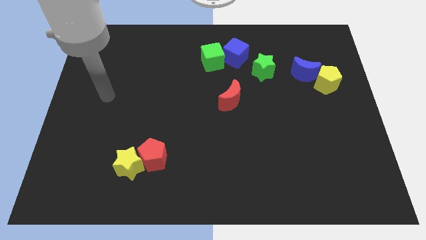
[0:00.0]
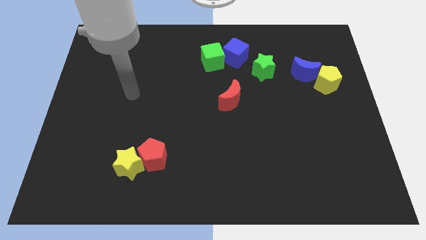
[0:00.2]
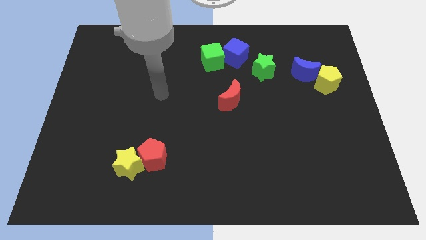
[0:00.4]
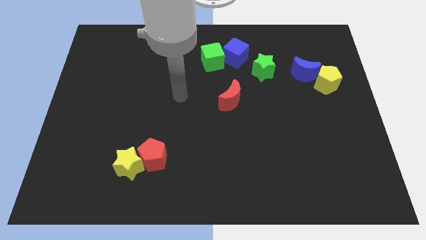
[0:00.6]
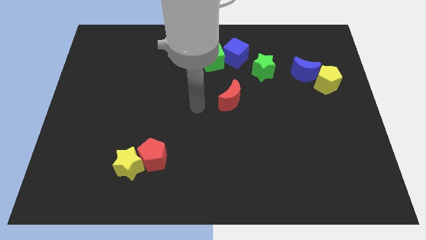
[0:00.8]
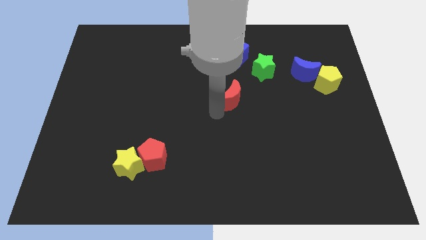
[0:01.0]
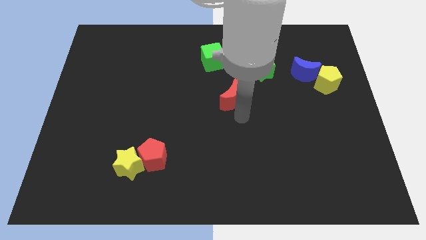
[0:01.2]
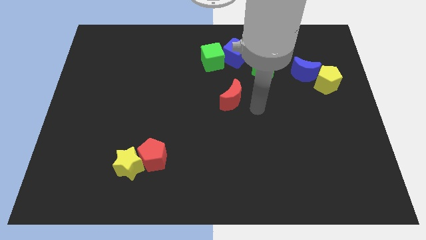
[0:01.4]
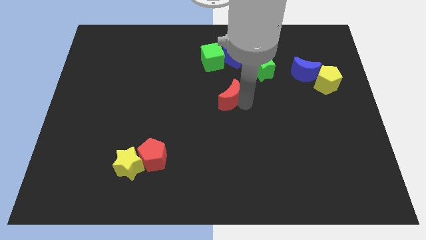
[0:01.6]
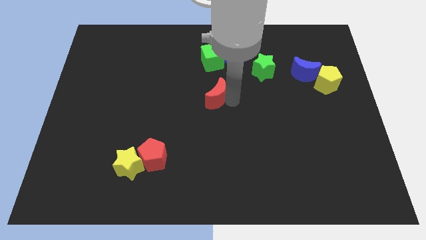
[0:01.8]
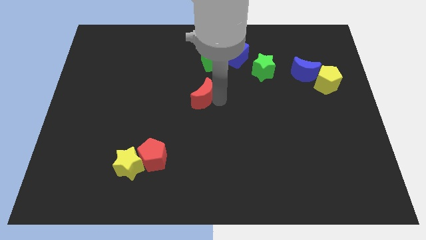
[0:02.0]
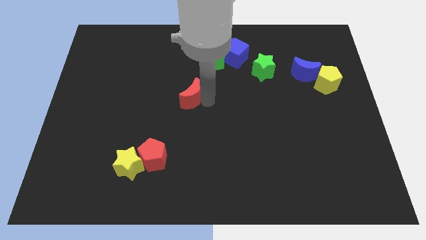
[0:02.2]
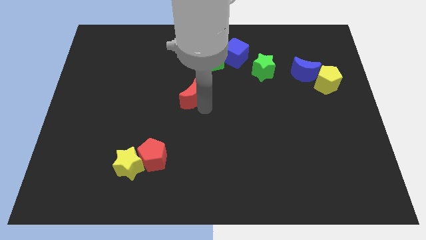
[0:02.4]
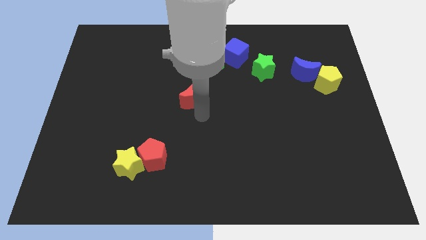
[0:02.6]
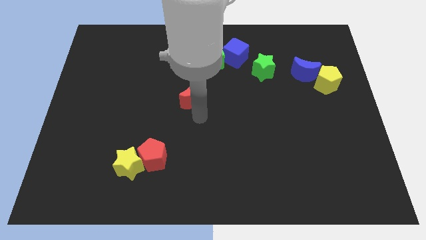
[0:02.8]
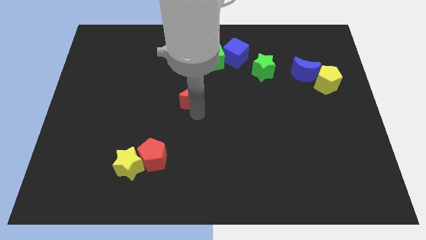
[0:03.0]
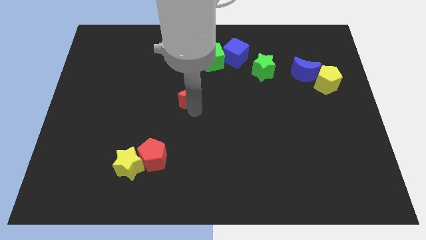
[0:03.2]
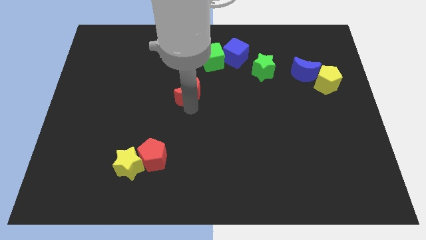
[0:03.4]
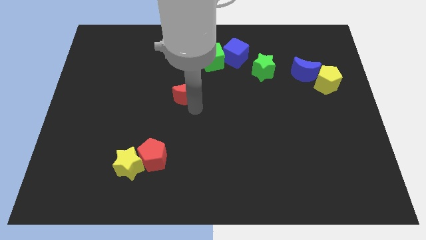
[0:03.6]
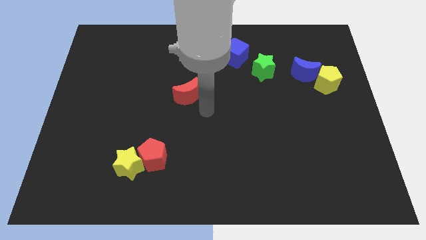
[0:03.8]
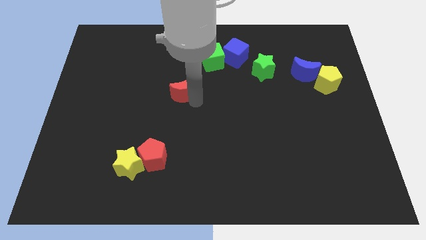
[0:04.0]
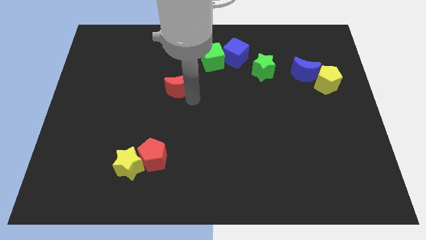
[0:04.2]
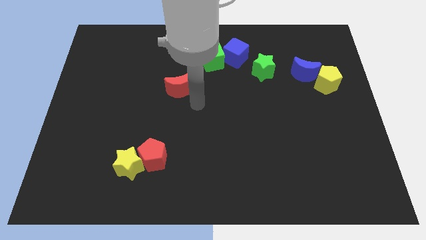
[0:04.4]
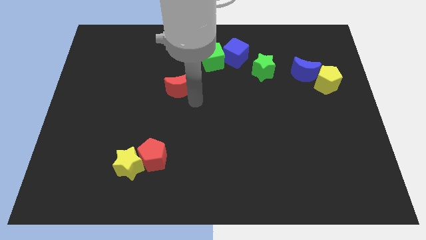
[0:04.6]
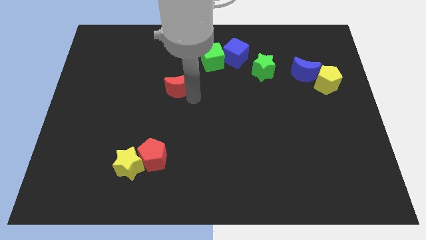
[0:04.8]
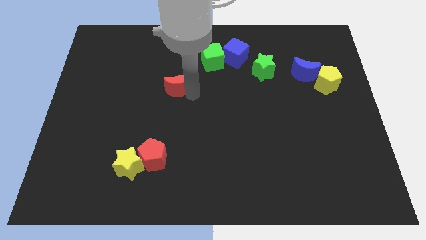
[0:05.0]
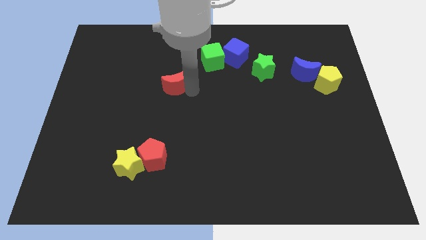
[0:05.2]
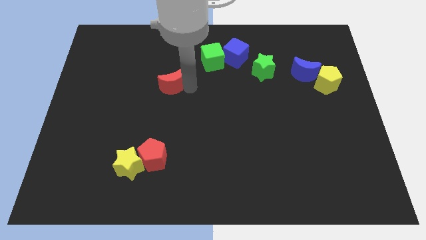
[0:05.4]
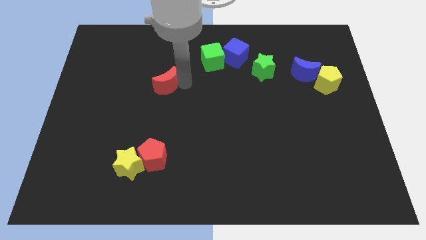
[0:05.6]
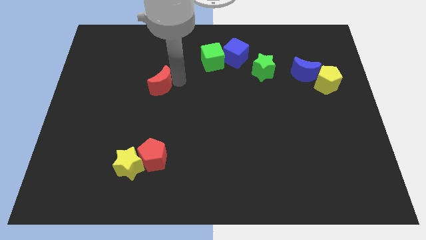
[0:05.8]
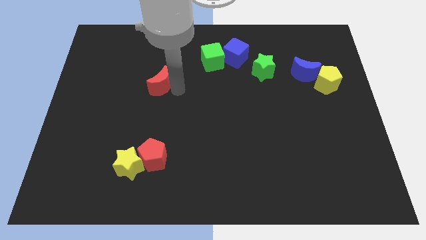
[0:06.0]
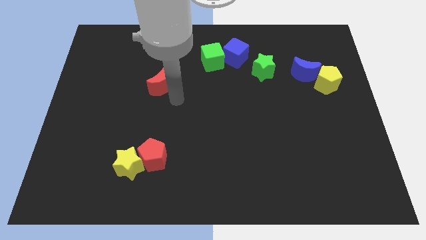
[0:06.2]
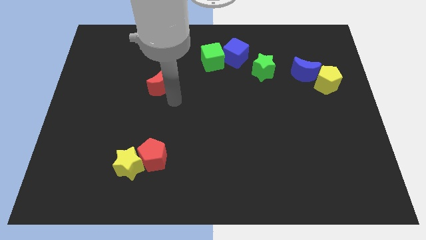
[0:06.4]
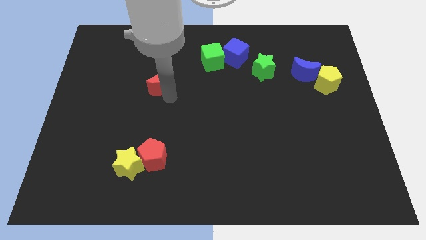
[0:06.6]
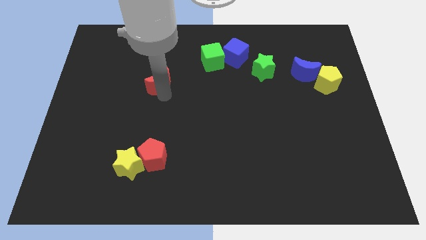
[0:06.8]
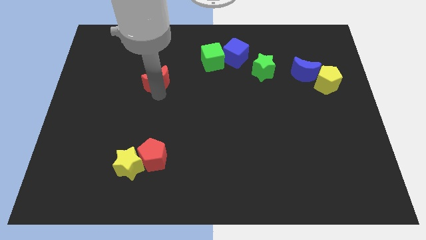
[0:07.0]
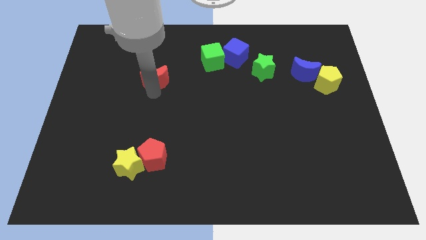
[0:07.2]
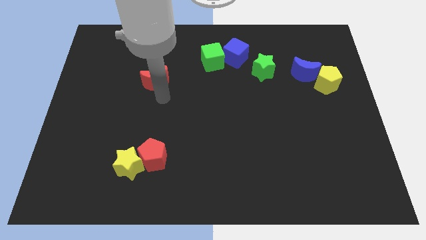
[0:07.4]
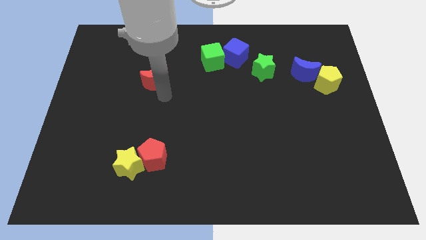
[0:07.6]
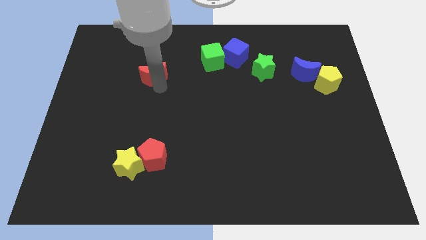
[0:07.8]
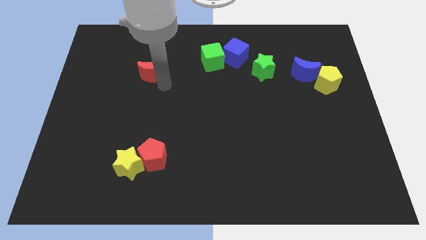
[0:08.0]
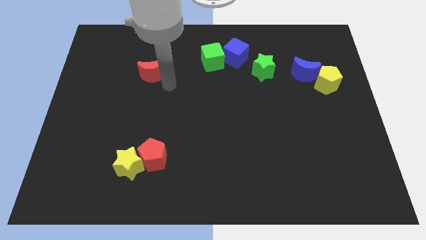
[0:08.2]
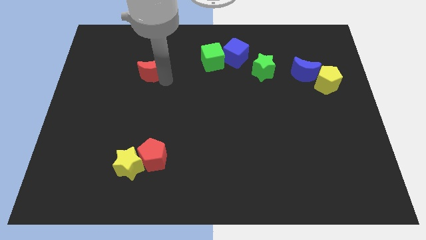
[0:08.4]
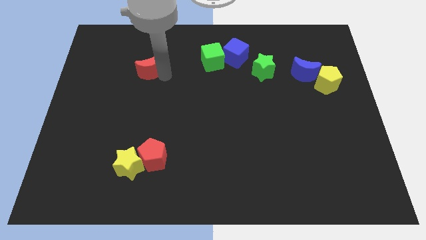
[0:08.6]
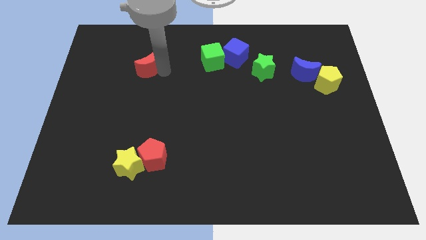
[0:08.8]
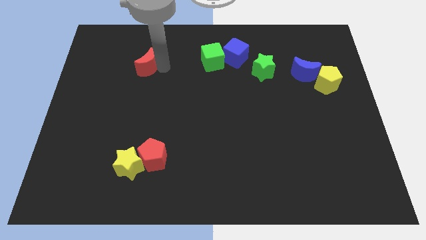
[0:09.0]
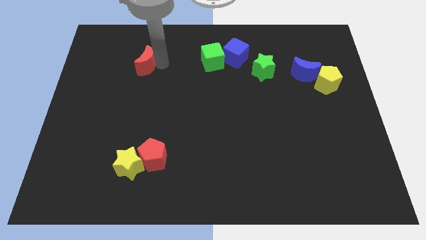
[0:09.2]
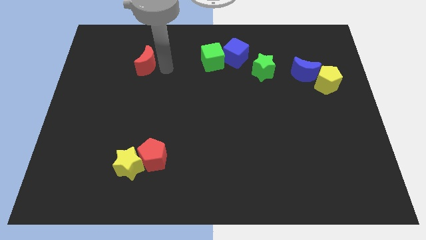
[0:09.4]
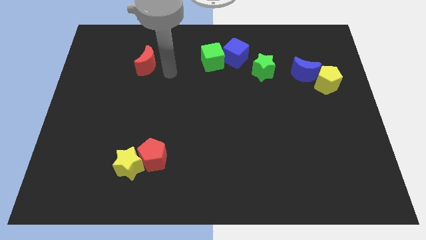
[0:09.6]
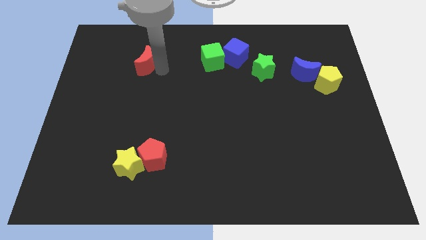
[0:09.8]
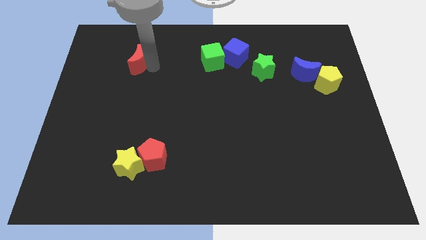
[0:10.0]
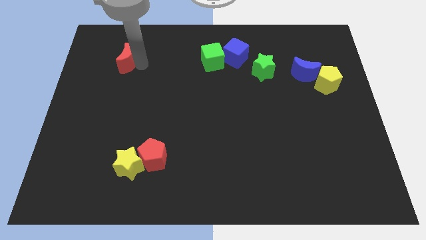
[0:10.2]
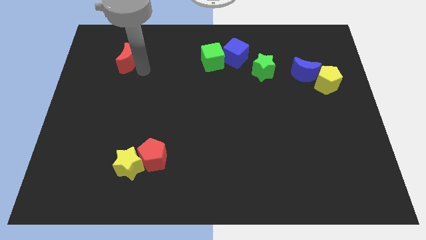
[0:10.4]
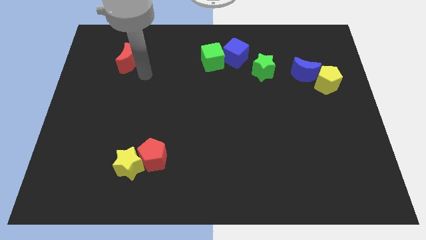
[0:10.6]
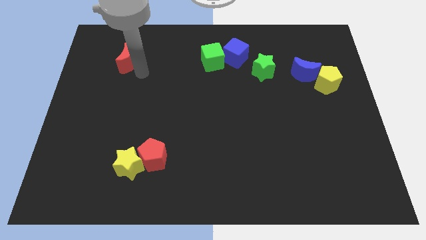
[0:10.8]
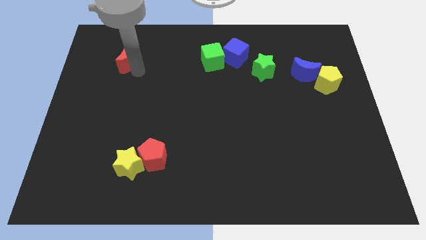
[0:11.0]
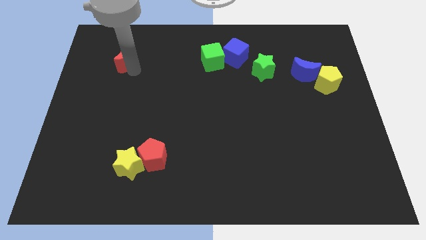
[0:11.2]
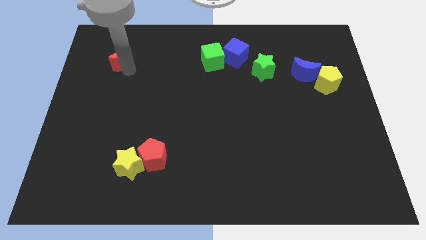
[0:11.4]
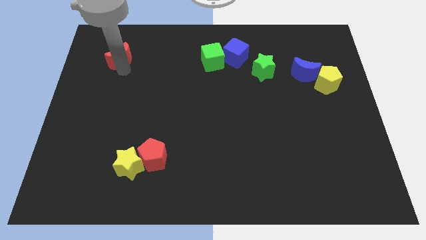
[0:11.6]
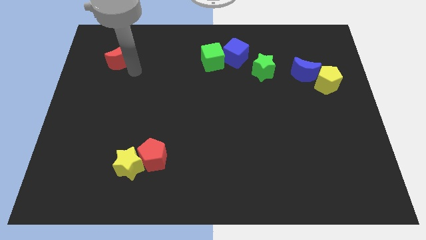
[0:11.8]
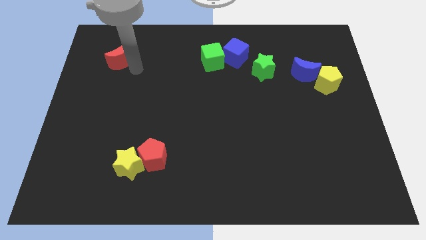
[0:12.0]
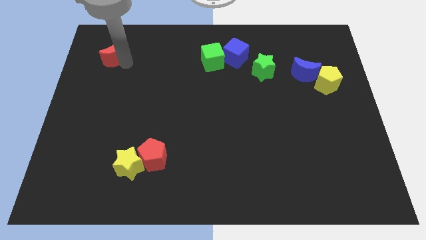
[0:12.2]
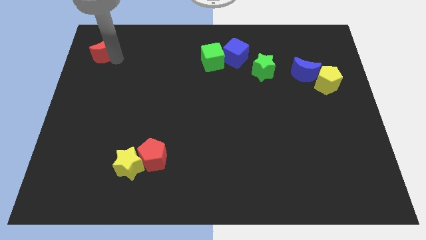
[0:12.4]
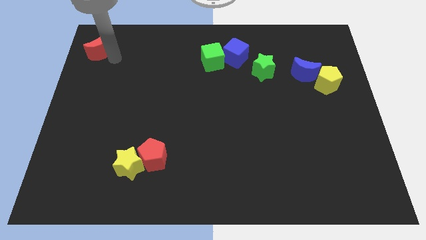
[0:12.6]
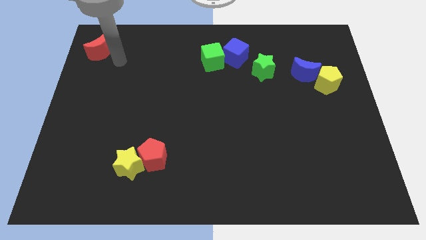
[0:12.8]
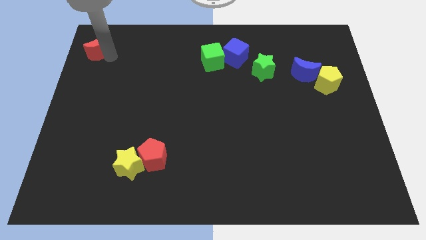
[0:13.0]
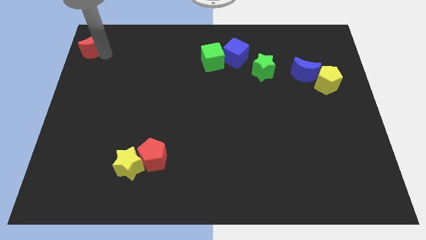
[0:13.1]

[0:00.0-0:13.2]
push the red moon to the top left corner
